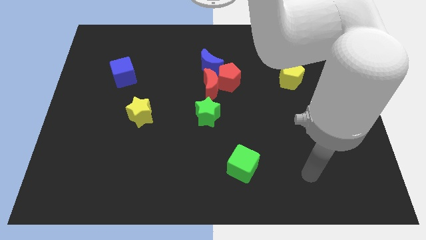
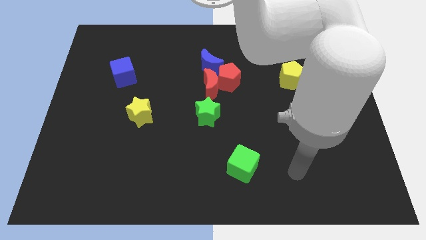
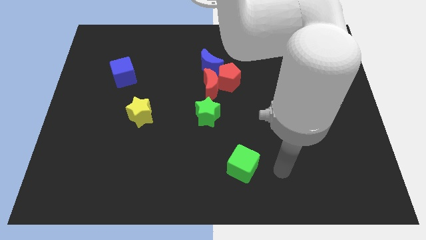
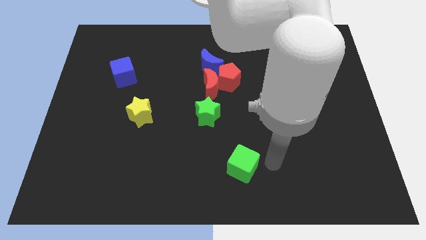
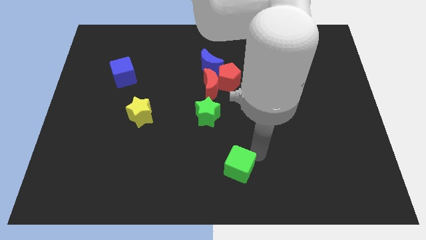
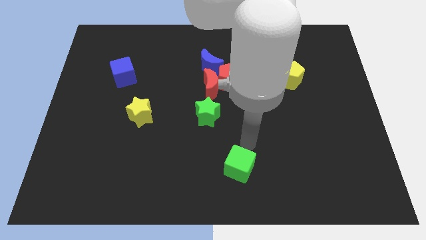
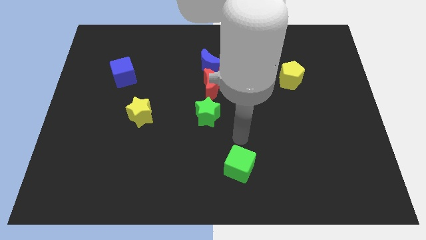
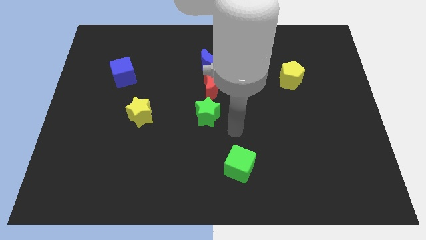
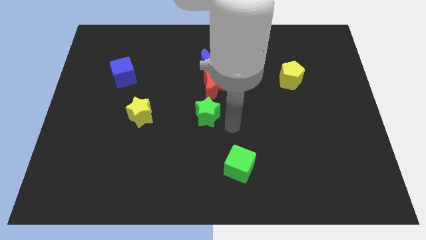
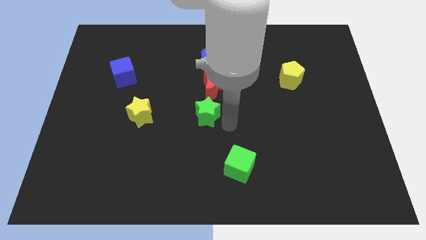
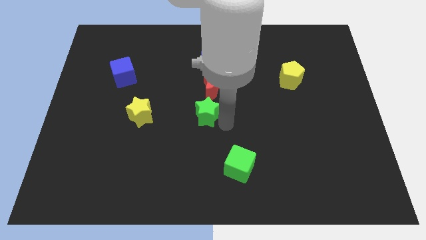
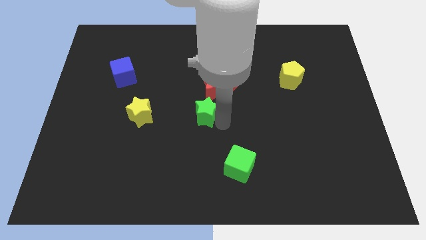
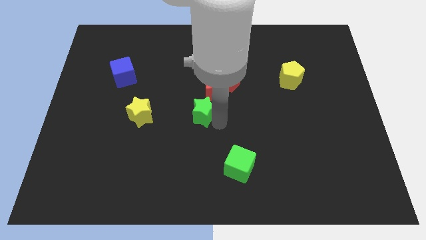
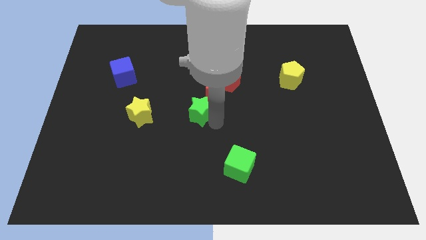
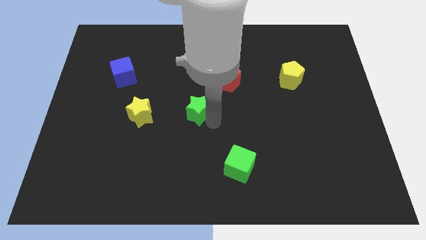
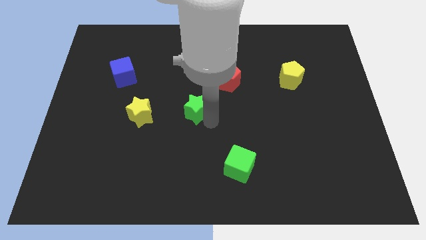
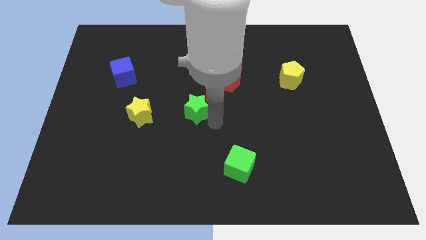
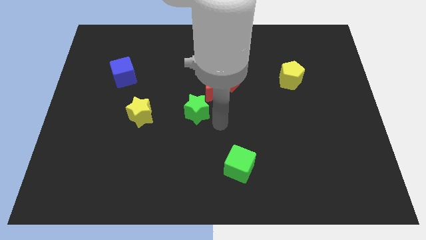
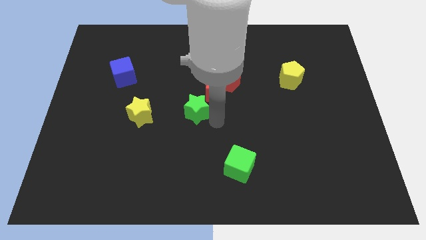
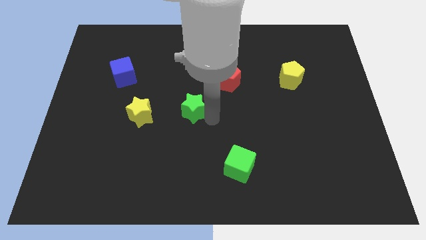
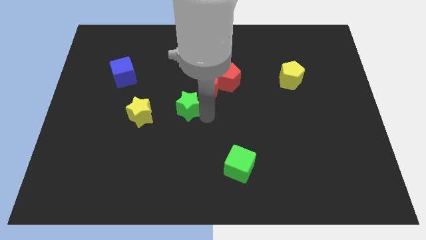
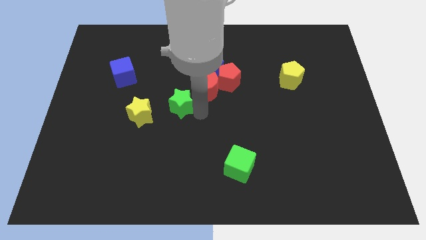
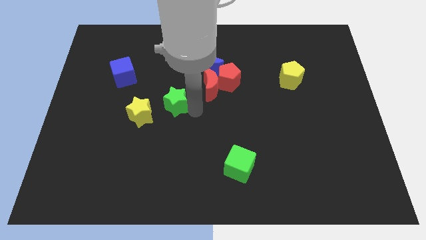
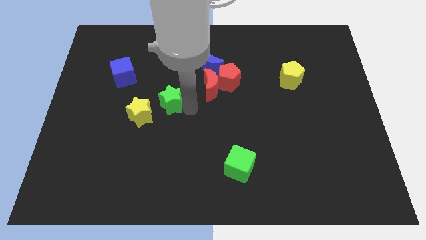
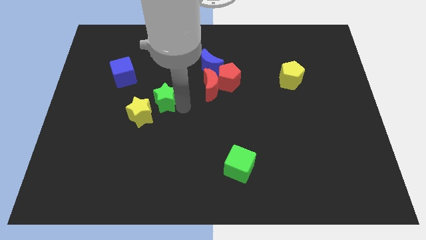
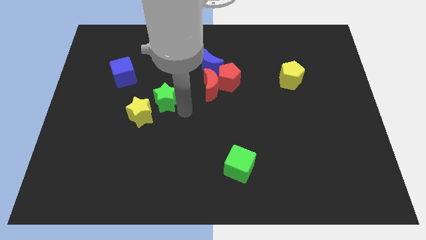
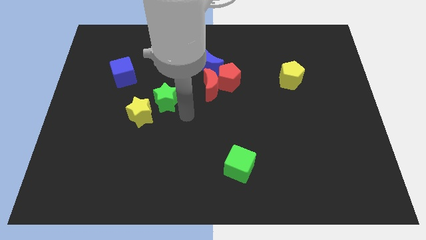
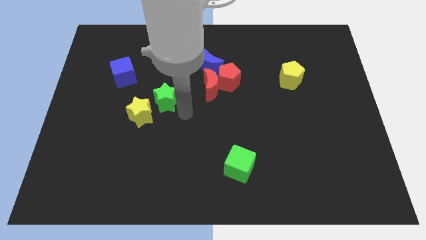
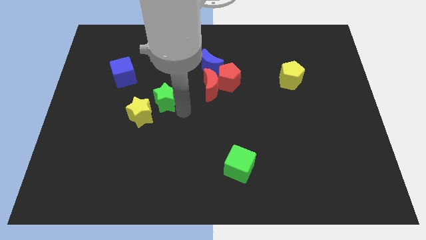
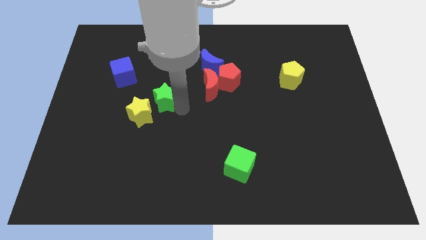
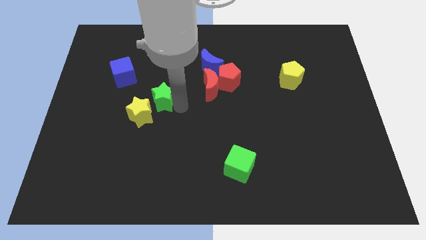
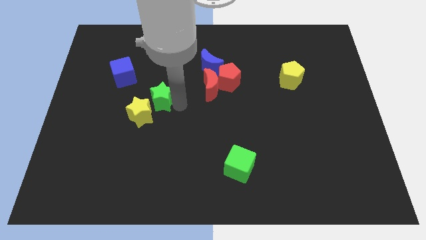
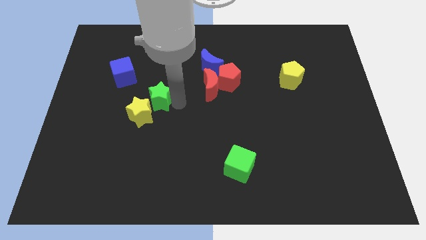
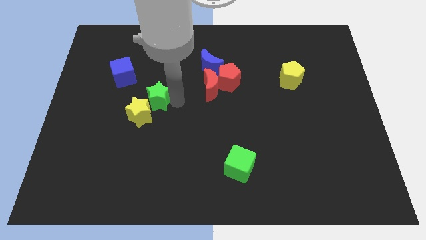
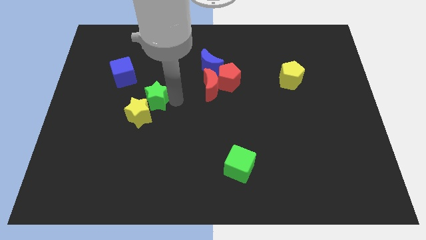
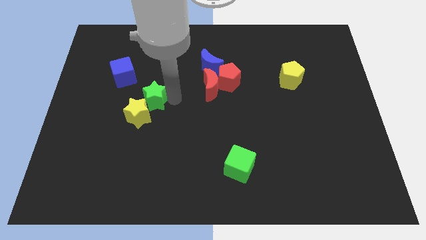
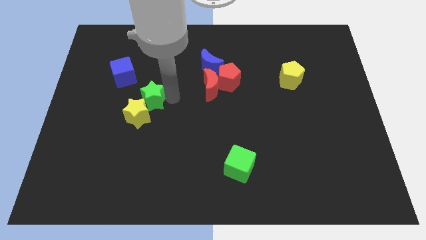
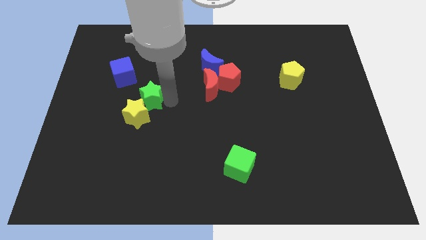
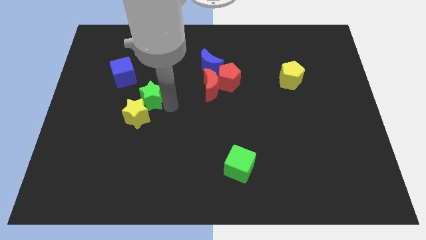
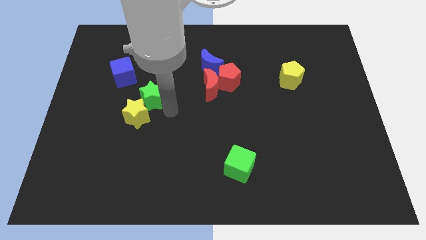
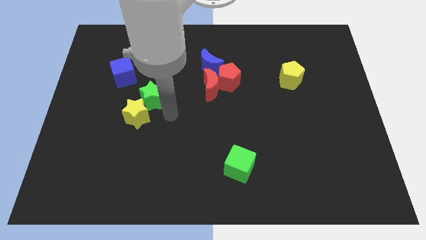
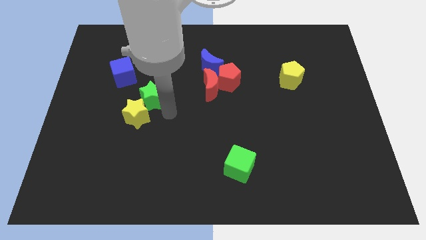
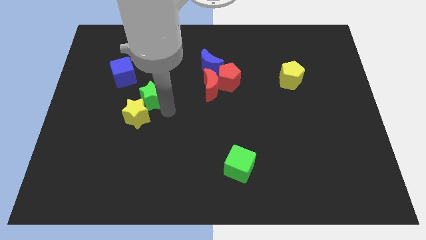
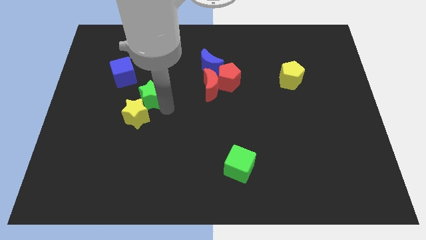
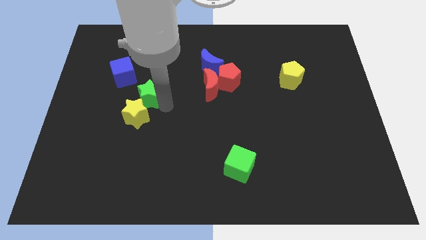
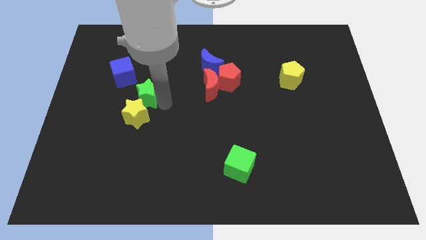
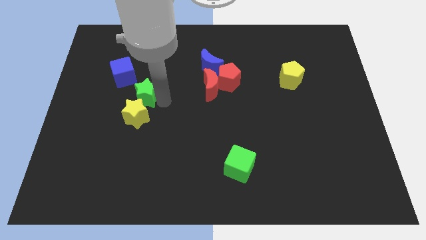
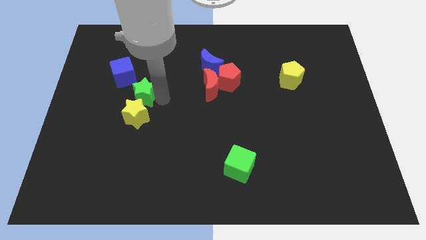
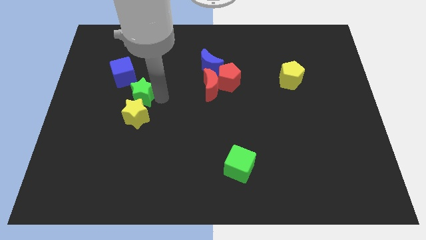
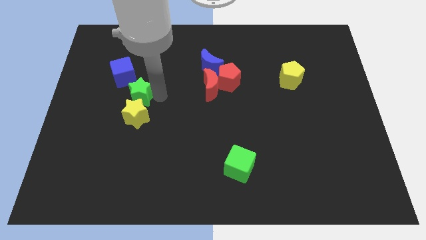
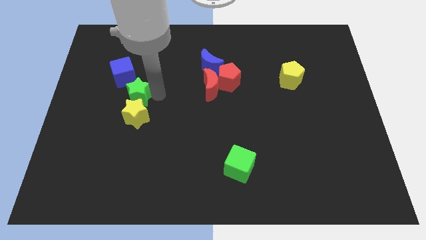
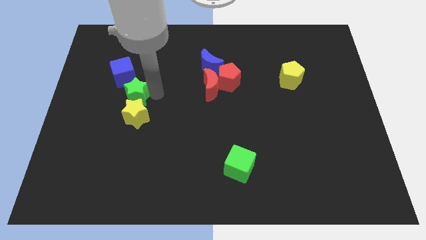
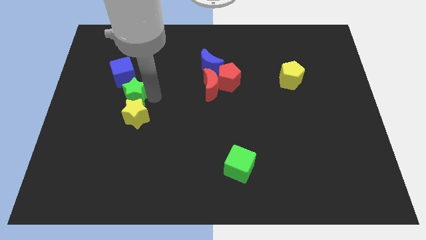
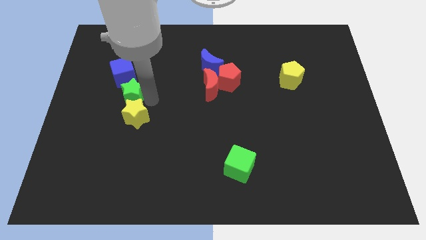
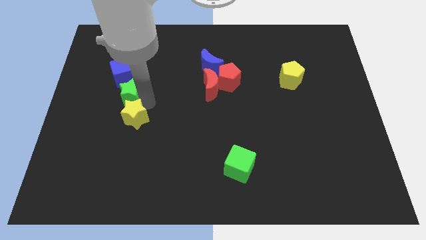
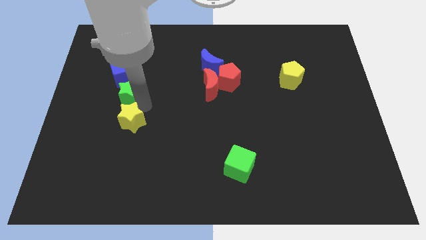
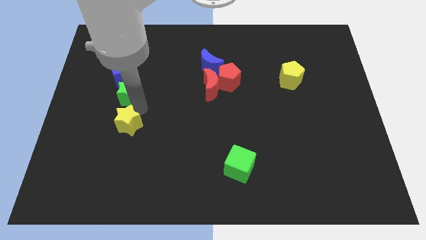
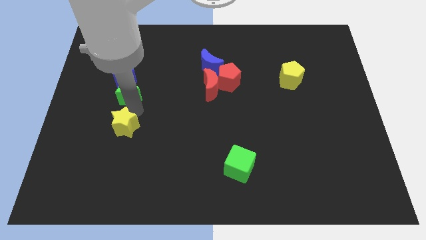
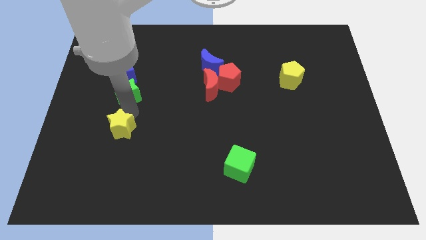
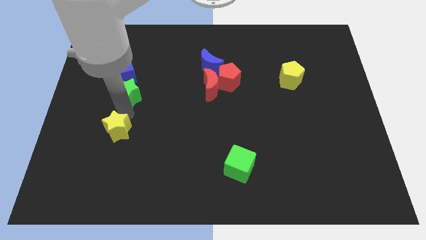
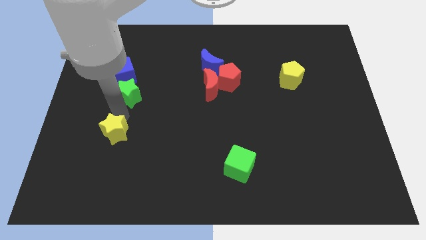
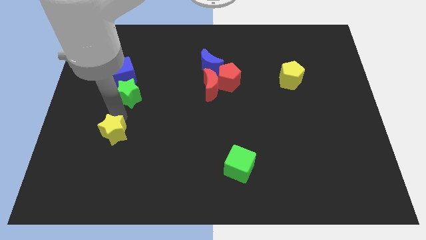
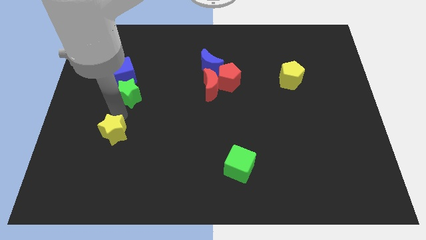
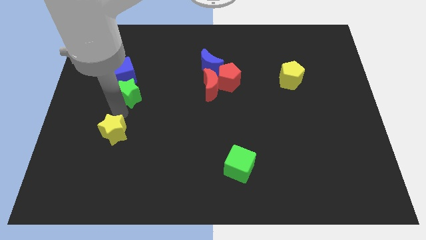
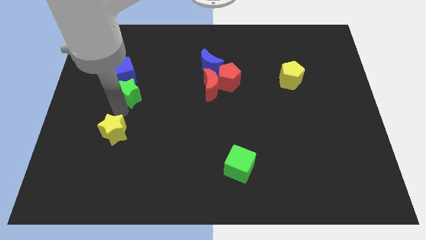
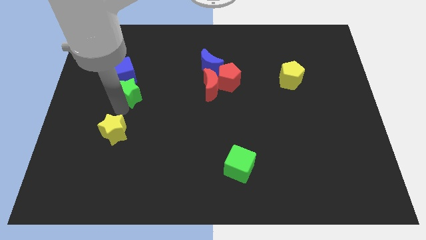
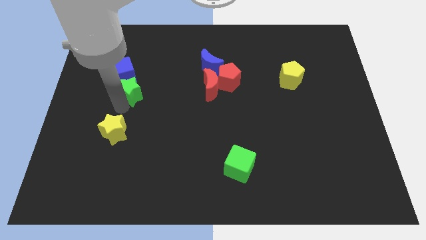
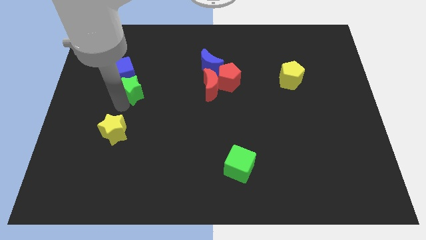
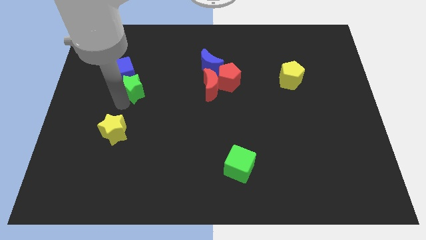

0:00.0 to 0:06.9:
slide the green star next to the blue cube
